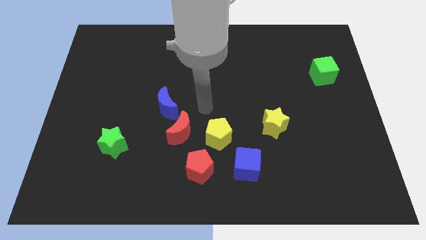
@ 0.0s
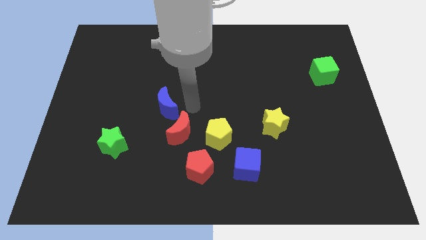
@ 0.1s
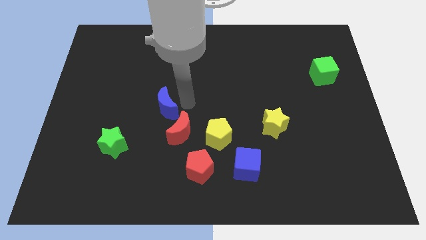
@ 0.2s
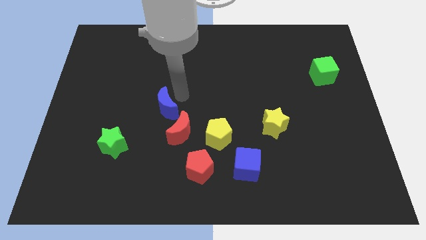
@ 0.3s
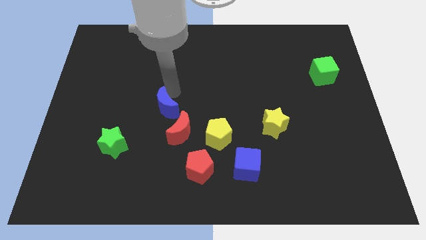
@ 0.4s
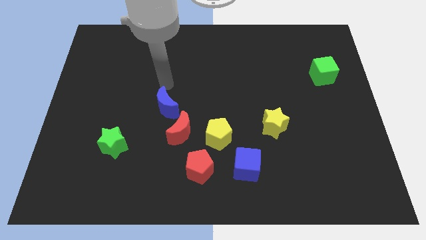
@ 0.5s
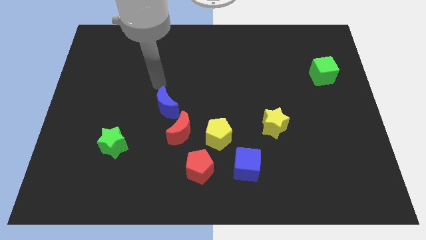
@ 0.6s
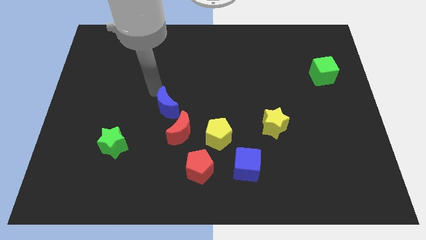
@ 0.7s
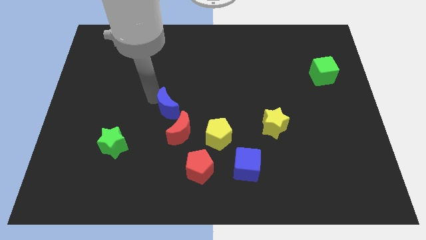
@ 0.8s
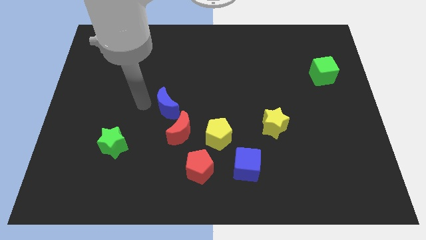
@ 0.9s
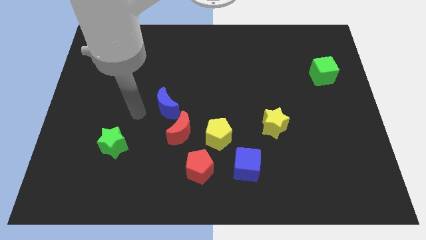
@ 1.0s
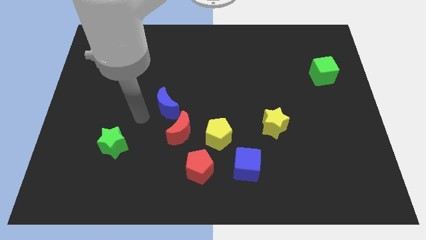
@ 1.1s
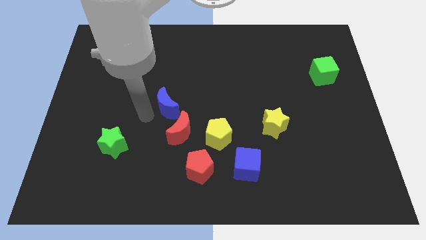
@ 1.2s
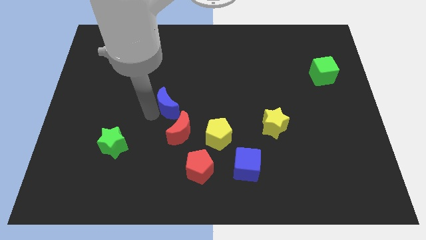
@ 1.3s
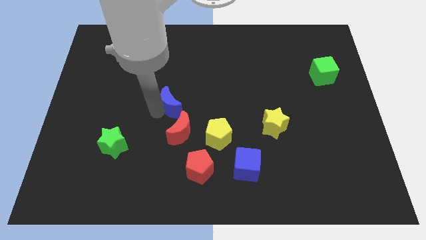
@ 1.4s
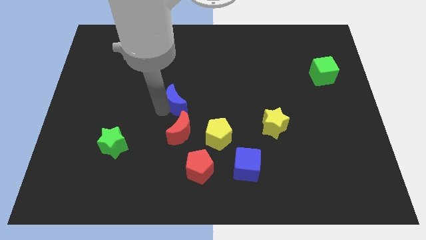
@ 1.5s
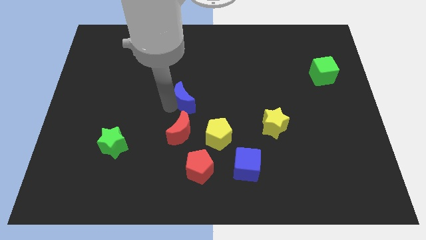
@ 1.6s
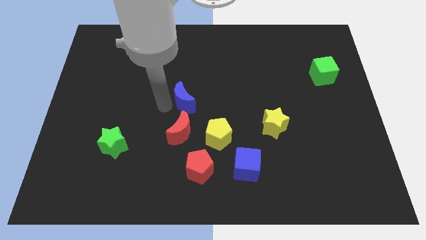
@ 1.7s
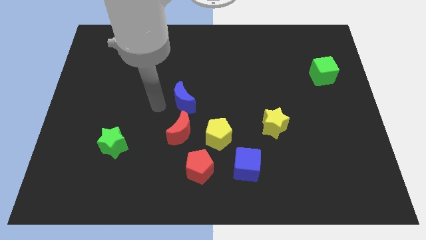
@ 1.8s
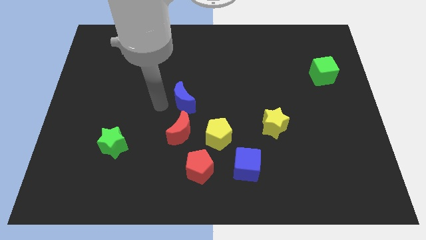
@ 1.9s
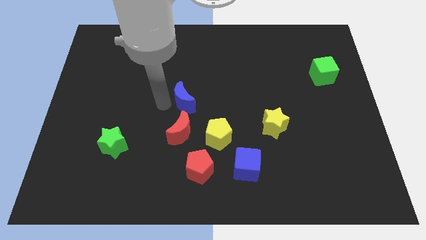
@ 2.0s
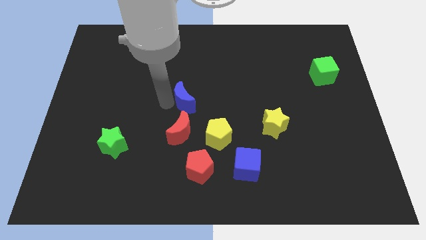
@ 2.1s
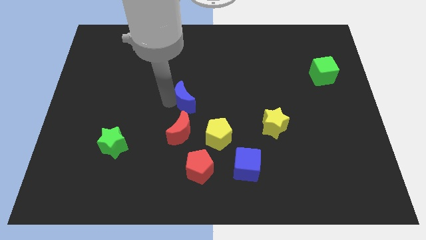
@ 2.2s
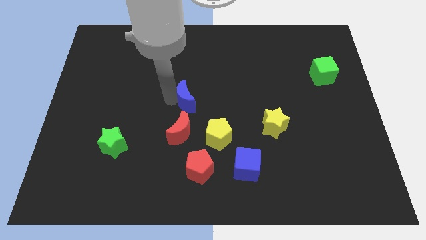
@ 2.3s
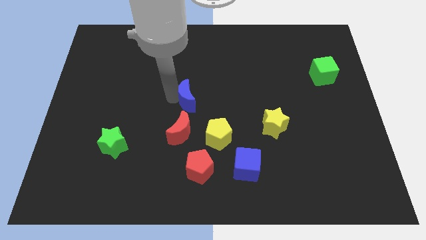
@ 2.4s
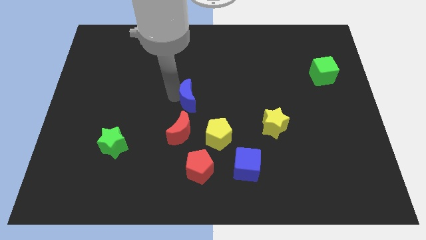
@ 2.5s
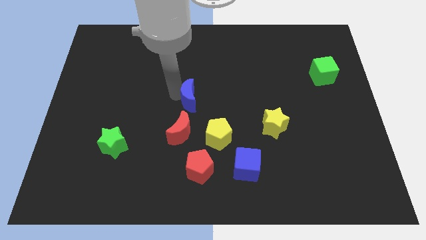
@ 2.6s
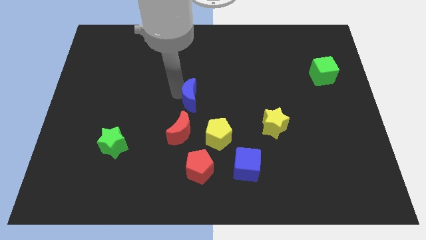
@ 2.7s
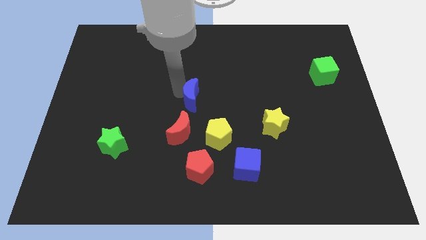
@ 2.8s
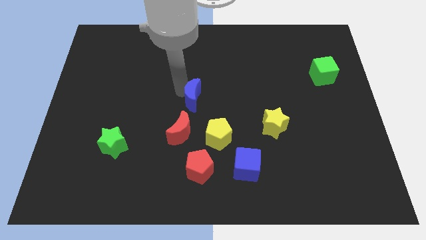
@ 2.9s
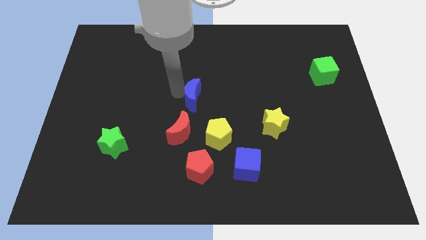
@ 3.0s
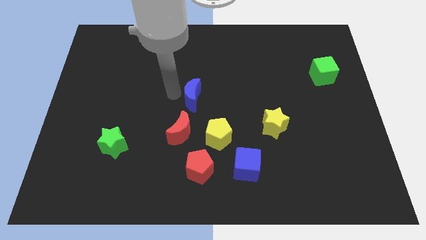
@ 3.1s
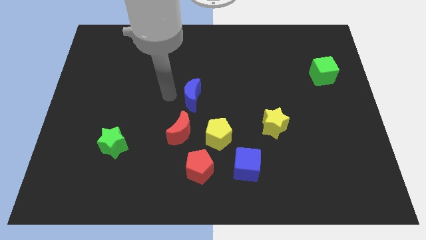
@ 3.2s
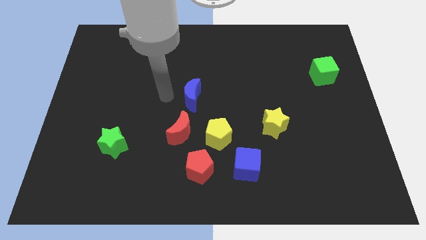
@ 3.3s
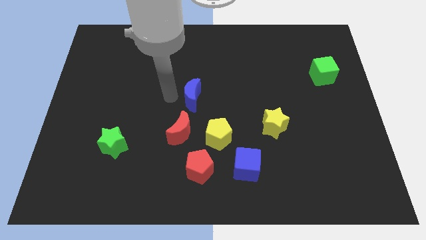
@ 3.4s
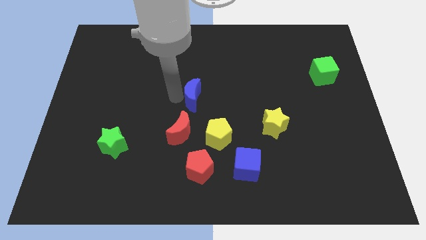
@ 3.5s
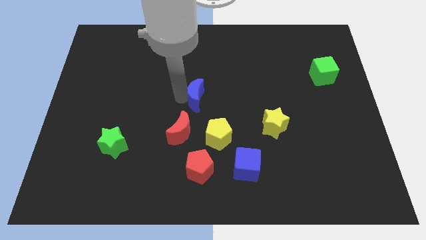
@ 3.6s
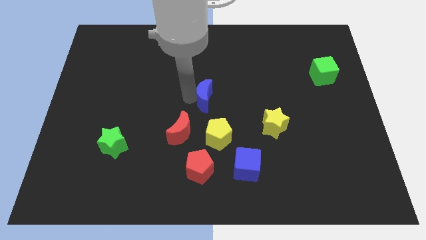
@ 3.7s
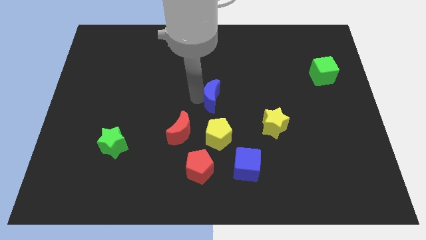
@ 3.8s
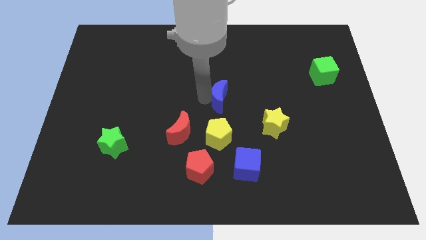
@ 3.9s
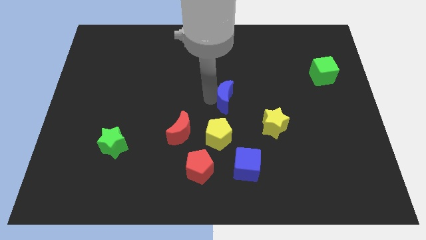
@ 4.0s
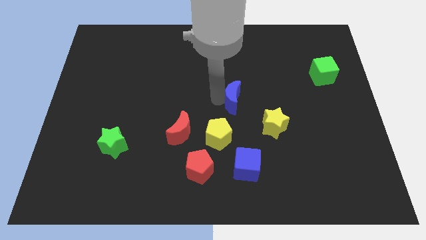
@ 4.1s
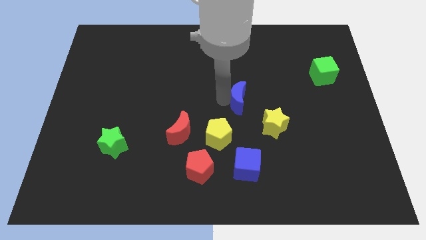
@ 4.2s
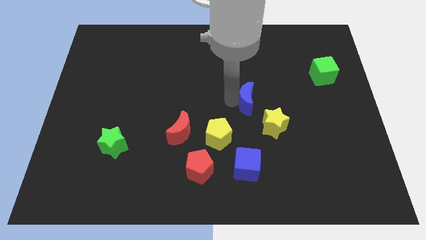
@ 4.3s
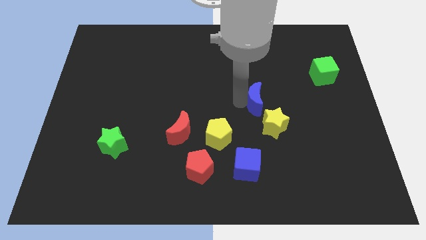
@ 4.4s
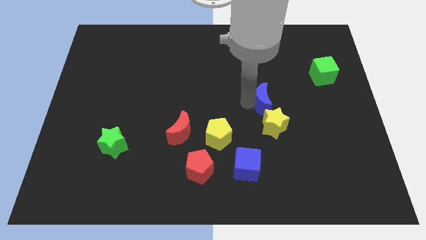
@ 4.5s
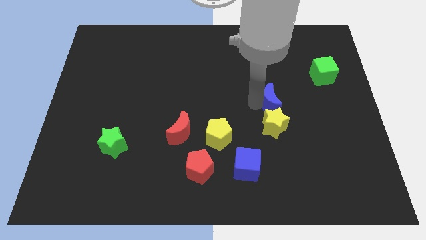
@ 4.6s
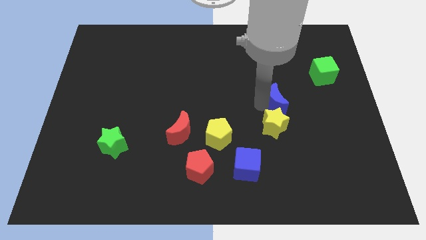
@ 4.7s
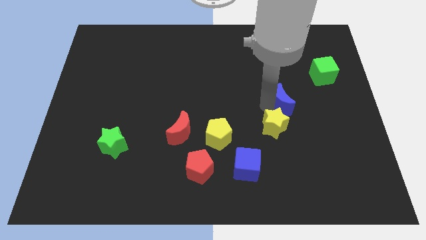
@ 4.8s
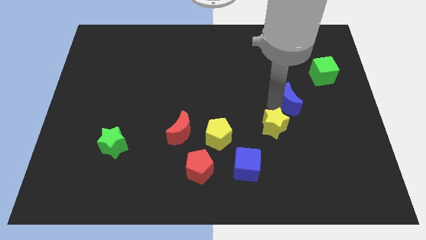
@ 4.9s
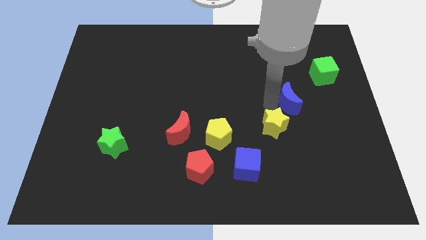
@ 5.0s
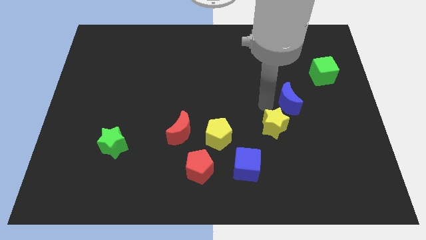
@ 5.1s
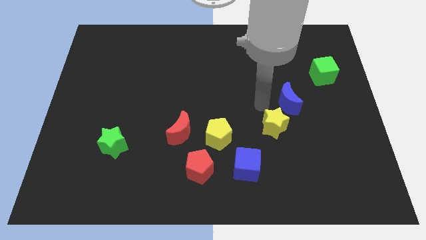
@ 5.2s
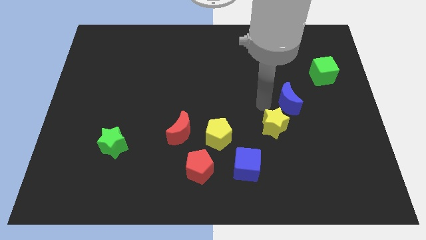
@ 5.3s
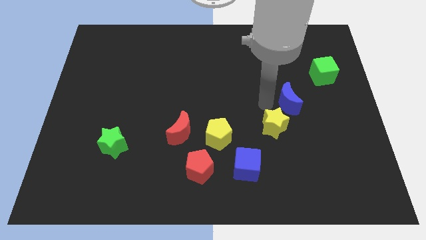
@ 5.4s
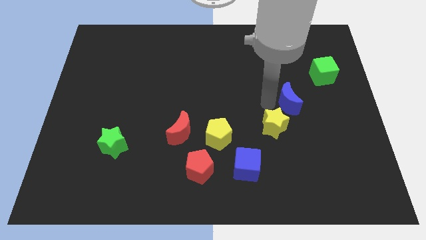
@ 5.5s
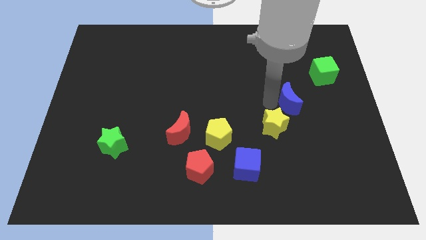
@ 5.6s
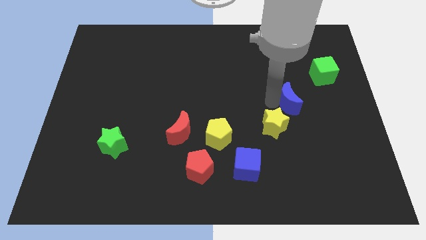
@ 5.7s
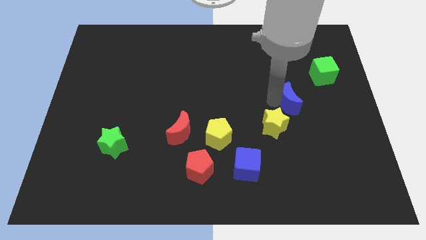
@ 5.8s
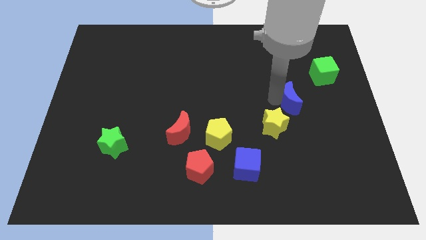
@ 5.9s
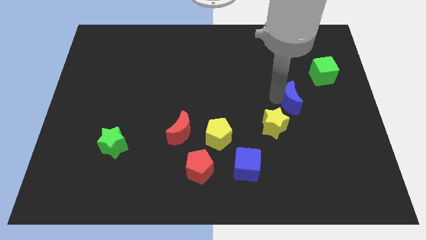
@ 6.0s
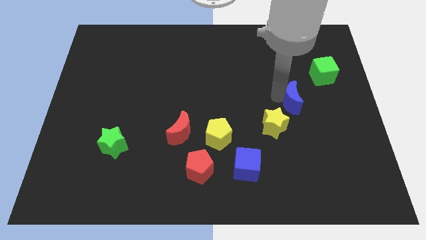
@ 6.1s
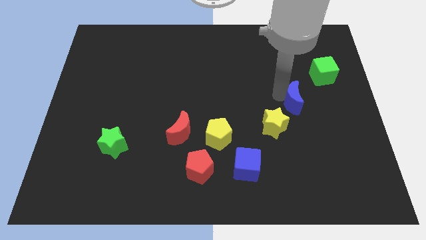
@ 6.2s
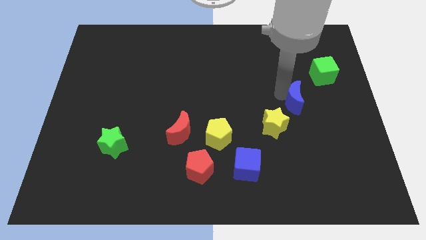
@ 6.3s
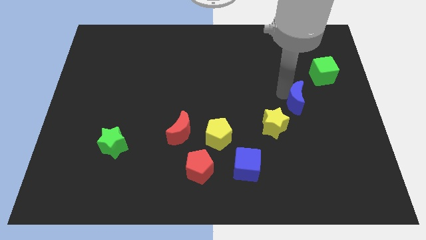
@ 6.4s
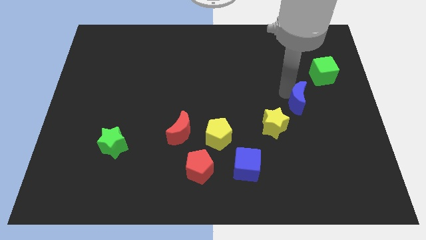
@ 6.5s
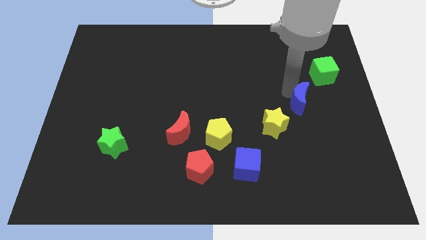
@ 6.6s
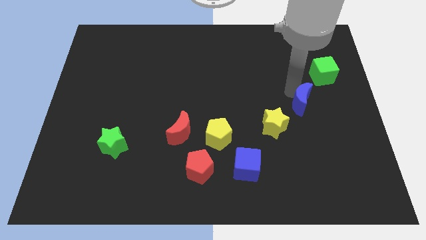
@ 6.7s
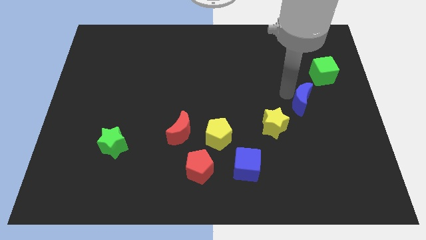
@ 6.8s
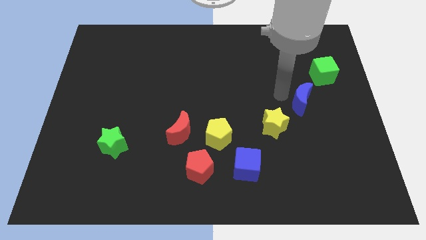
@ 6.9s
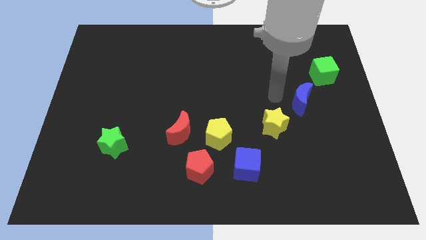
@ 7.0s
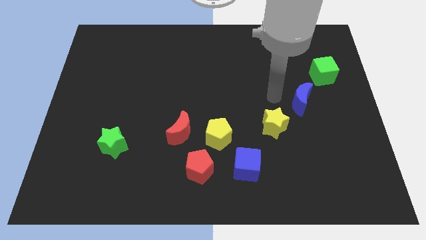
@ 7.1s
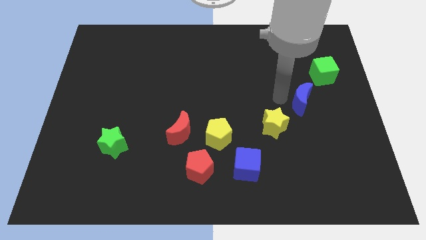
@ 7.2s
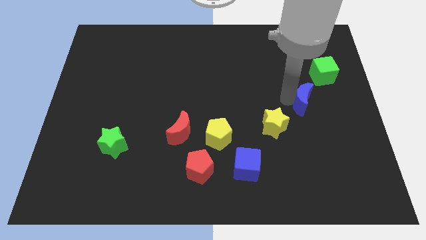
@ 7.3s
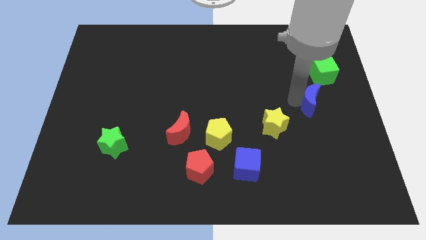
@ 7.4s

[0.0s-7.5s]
push the blue moon to the bottom of the green cube
